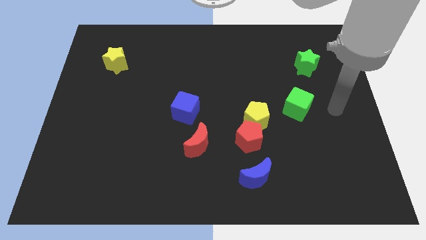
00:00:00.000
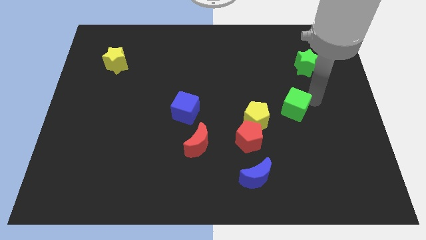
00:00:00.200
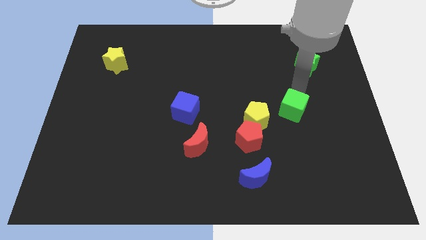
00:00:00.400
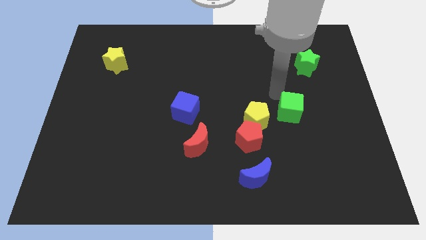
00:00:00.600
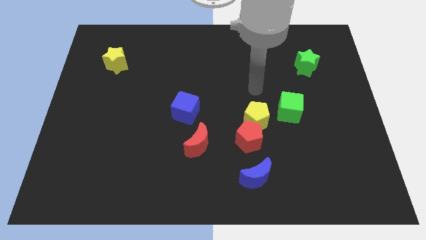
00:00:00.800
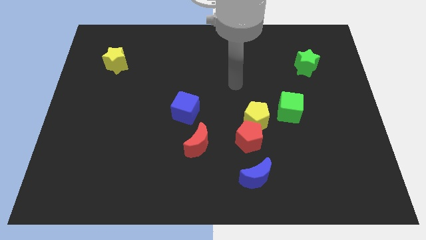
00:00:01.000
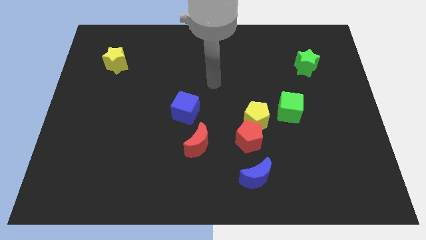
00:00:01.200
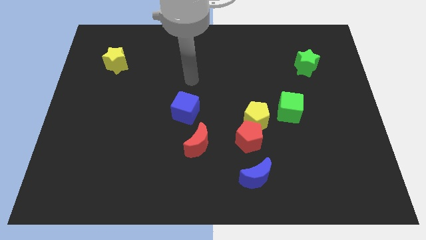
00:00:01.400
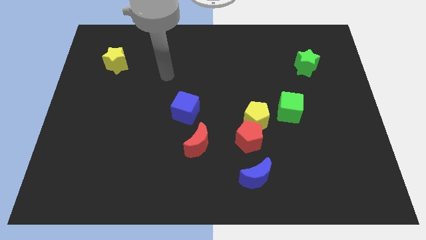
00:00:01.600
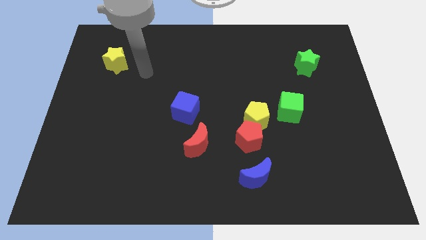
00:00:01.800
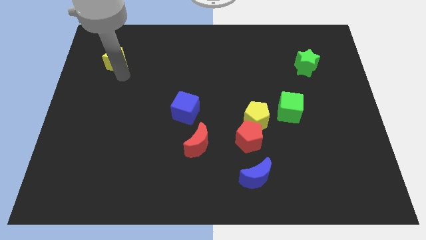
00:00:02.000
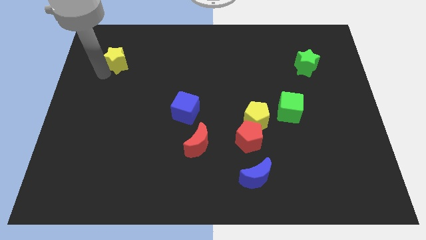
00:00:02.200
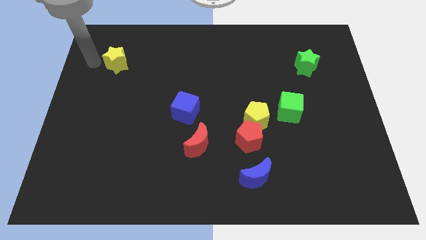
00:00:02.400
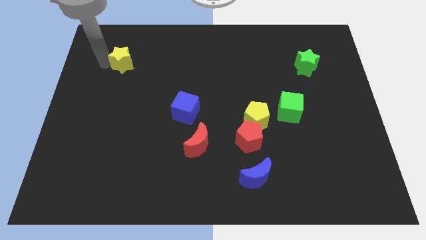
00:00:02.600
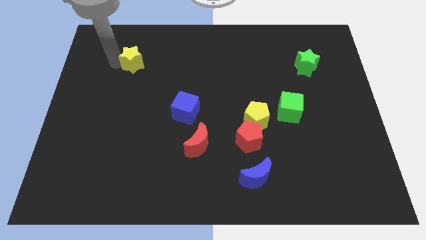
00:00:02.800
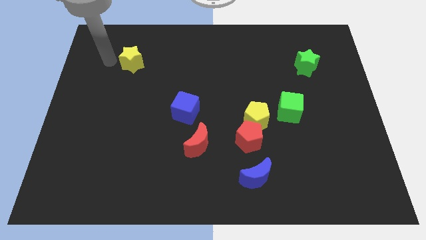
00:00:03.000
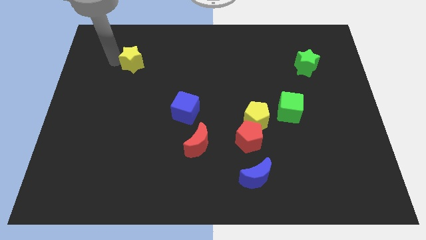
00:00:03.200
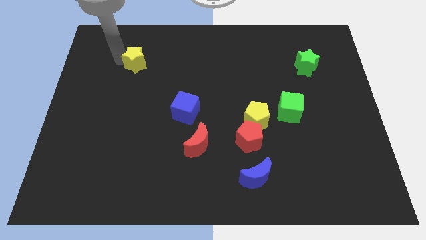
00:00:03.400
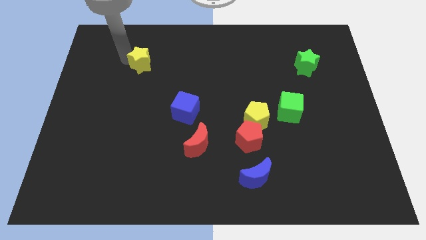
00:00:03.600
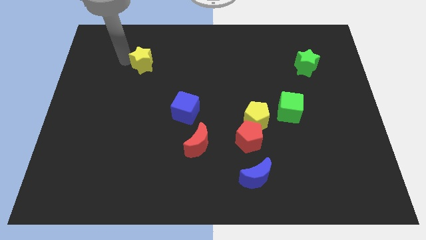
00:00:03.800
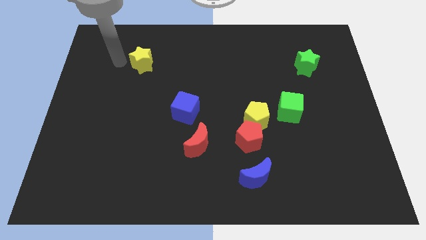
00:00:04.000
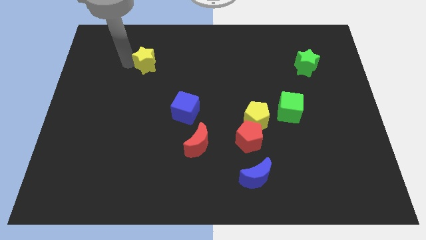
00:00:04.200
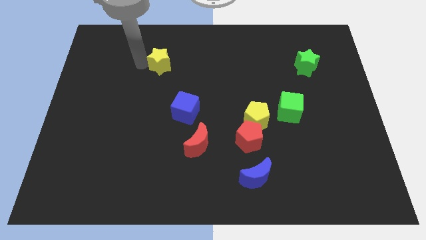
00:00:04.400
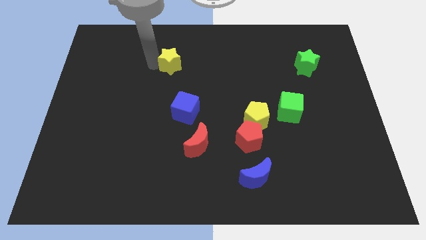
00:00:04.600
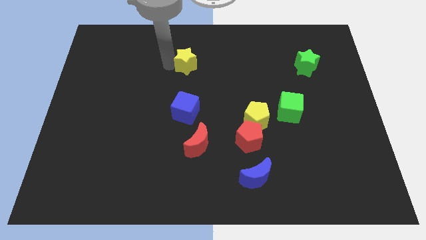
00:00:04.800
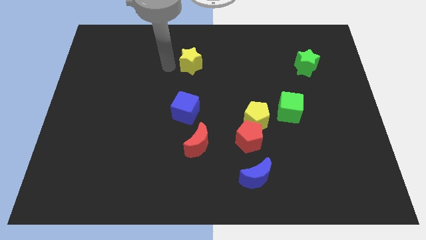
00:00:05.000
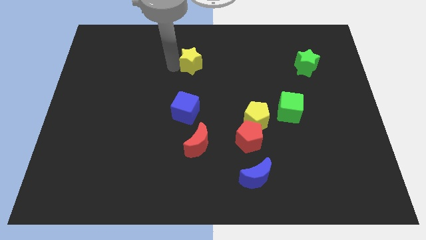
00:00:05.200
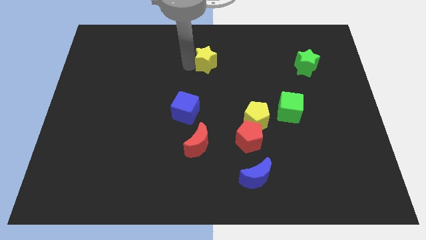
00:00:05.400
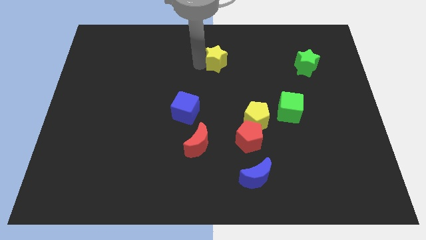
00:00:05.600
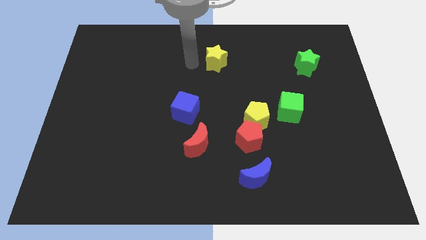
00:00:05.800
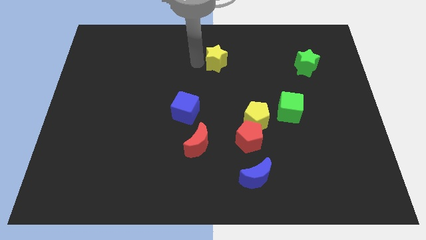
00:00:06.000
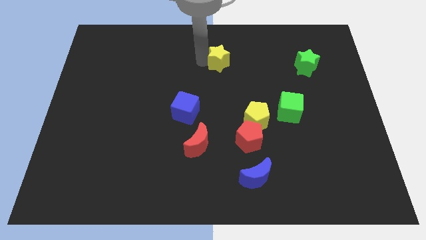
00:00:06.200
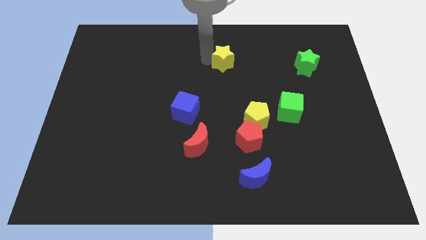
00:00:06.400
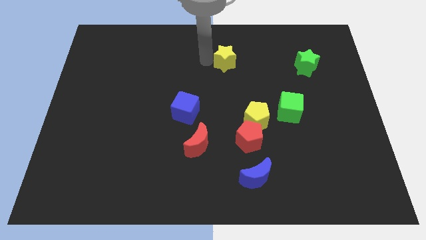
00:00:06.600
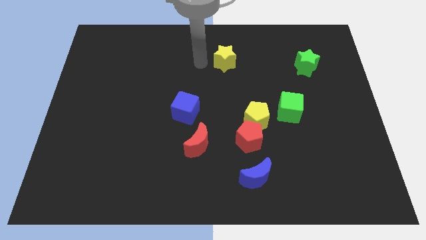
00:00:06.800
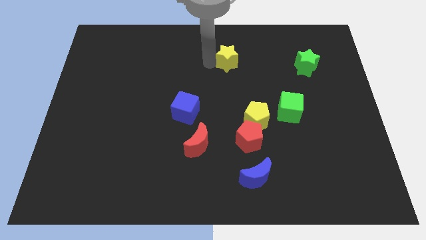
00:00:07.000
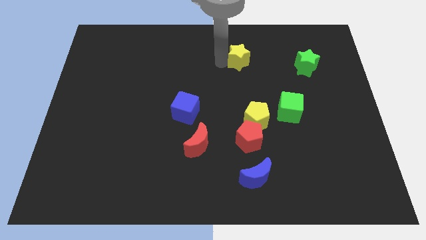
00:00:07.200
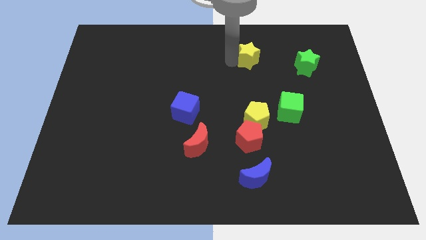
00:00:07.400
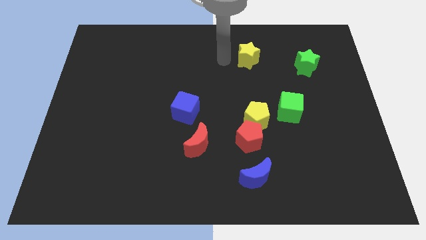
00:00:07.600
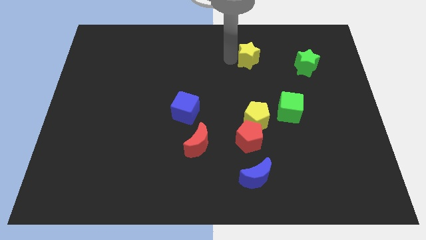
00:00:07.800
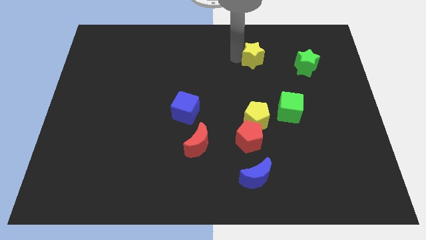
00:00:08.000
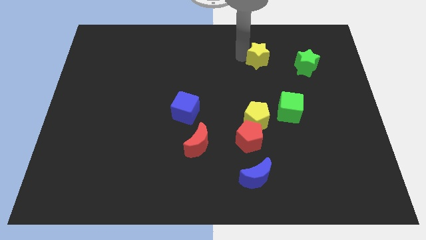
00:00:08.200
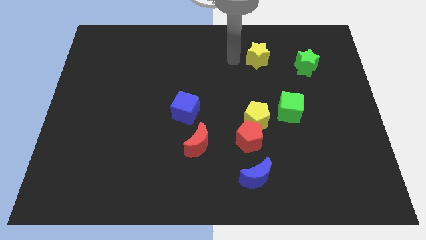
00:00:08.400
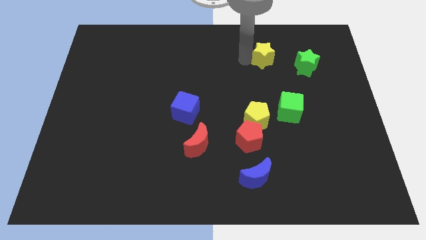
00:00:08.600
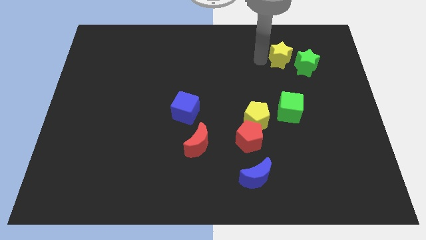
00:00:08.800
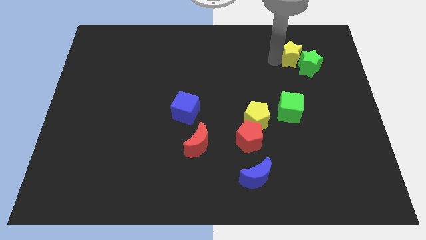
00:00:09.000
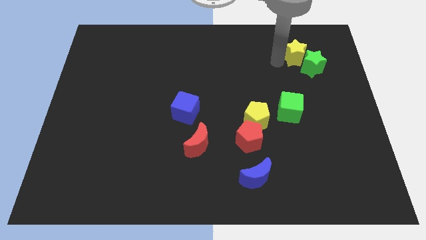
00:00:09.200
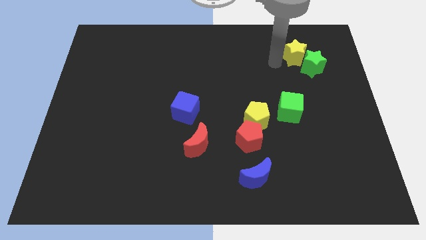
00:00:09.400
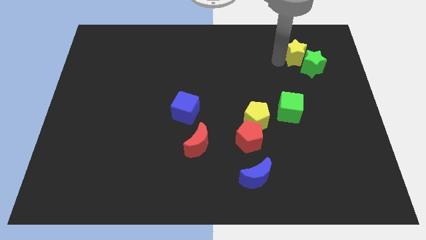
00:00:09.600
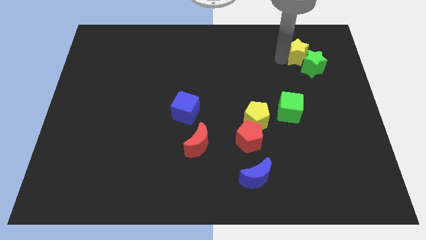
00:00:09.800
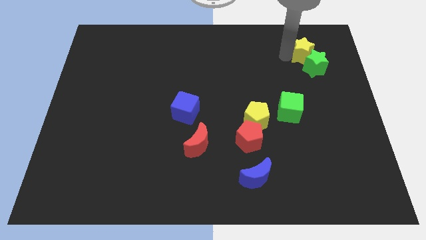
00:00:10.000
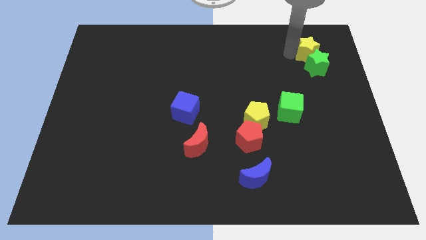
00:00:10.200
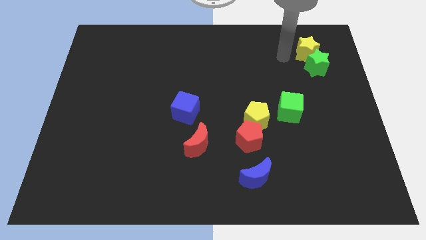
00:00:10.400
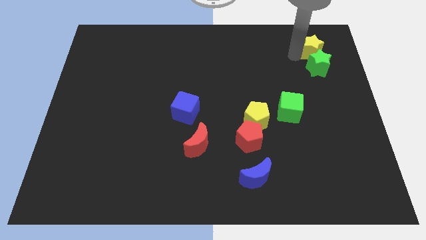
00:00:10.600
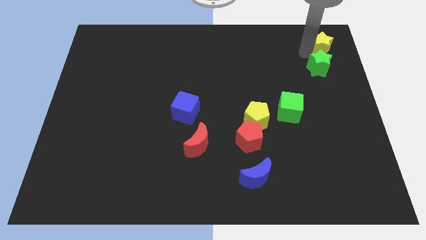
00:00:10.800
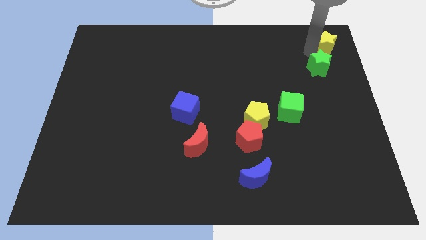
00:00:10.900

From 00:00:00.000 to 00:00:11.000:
push the yellow star to the top right corner

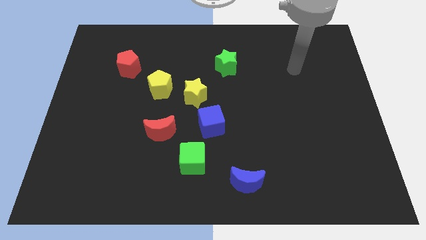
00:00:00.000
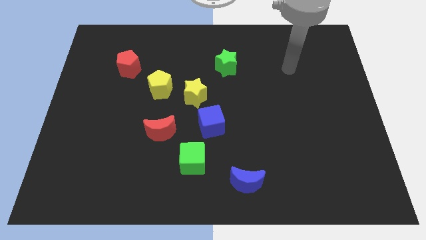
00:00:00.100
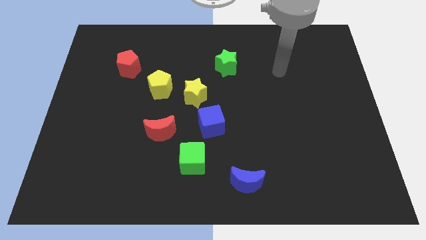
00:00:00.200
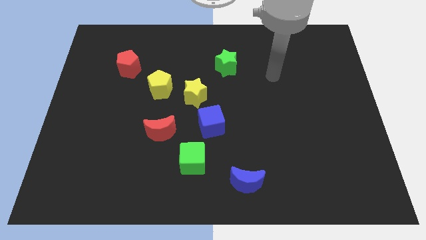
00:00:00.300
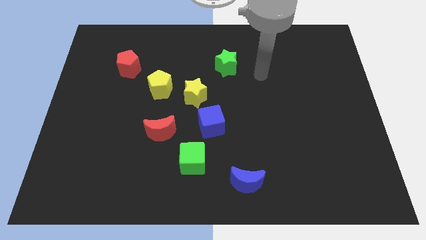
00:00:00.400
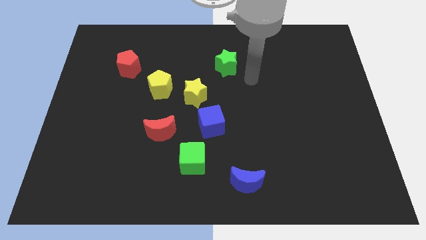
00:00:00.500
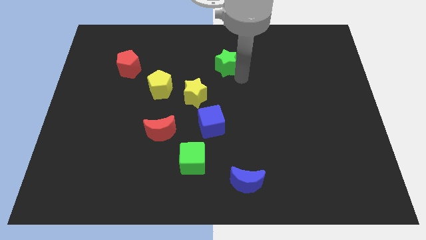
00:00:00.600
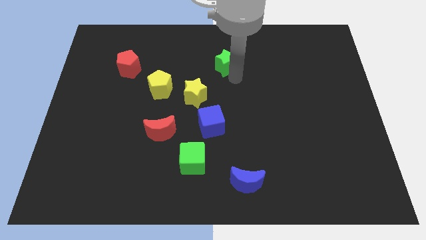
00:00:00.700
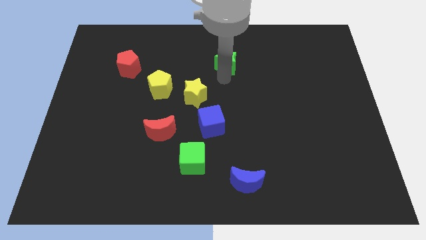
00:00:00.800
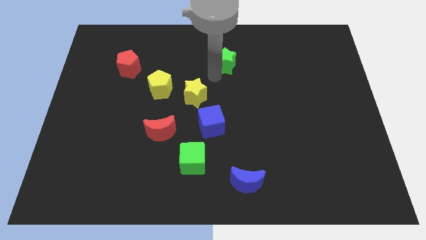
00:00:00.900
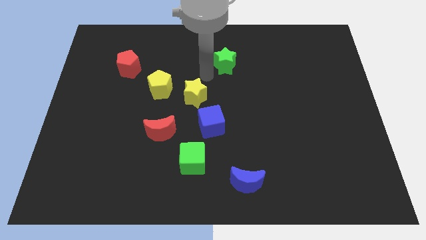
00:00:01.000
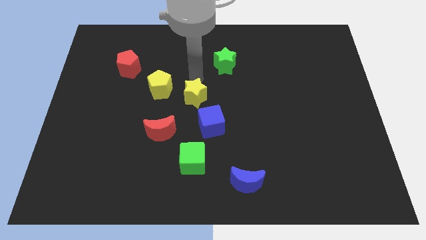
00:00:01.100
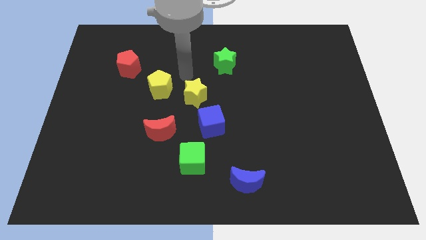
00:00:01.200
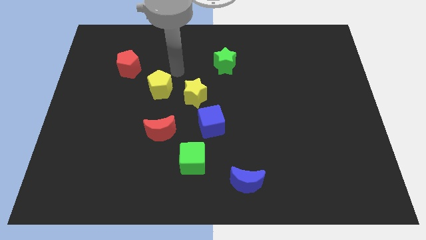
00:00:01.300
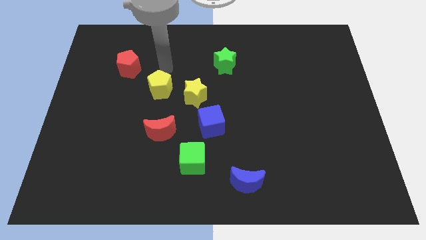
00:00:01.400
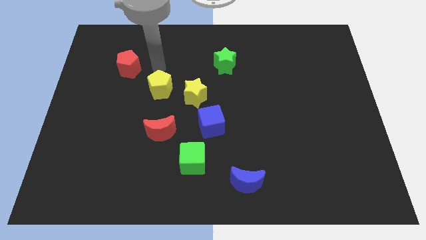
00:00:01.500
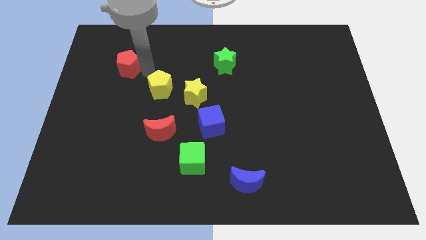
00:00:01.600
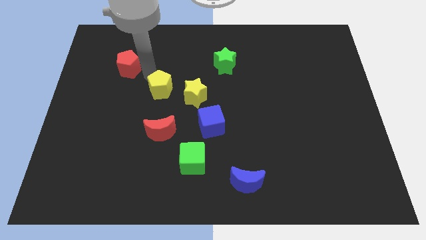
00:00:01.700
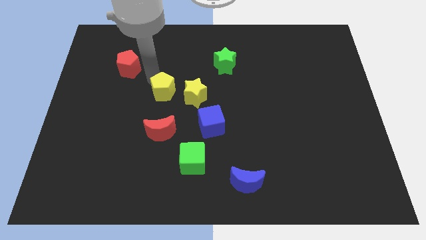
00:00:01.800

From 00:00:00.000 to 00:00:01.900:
move the yellow pentagon to the center of the board
